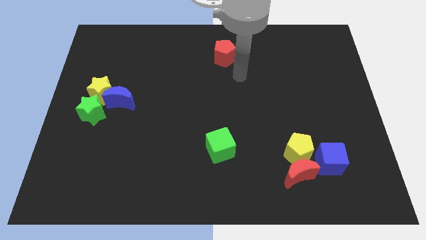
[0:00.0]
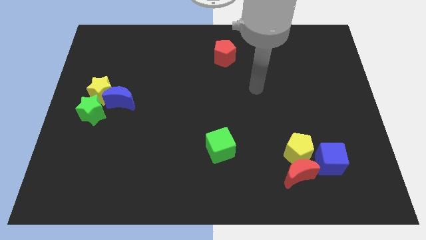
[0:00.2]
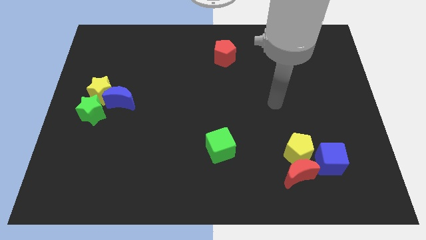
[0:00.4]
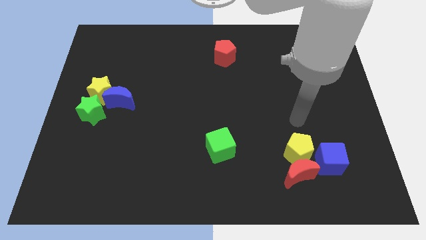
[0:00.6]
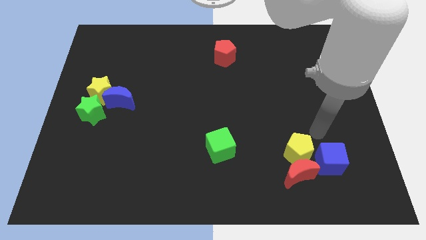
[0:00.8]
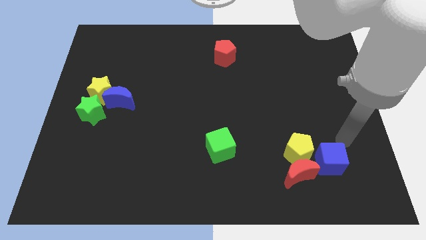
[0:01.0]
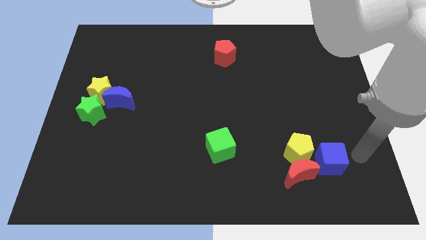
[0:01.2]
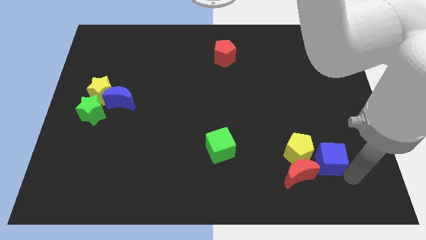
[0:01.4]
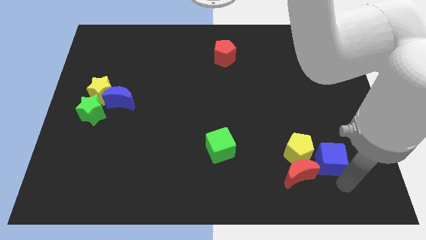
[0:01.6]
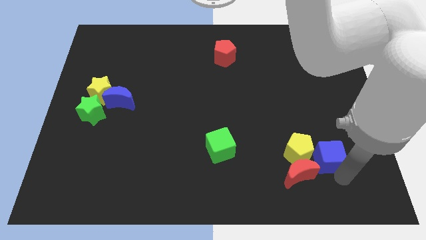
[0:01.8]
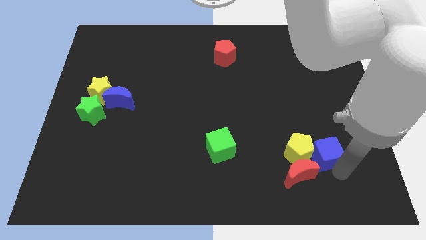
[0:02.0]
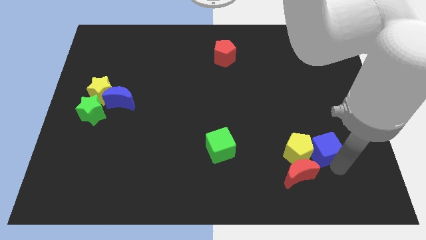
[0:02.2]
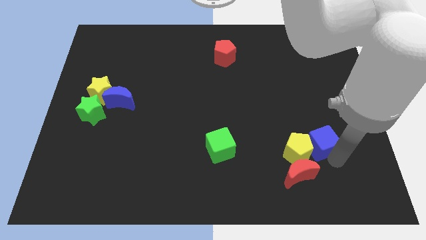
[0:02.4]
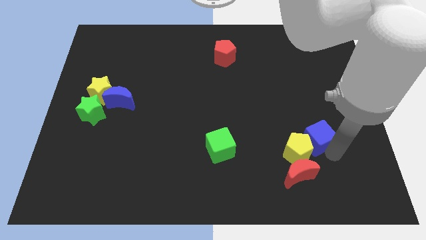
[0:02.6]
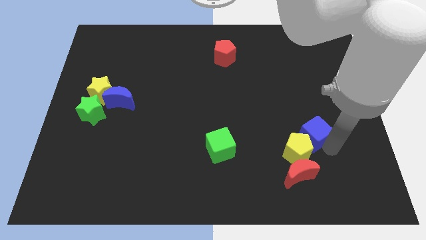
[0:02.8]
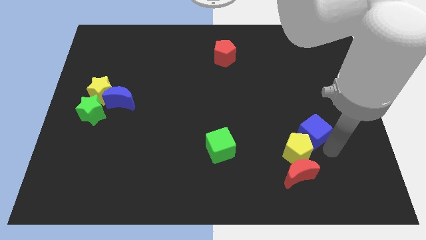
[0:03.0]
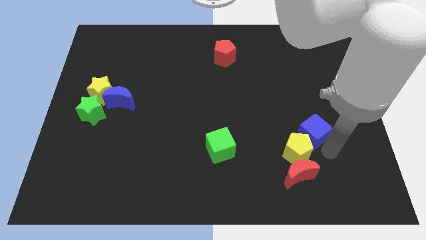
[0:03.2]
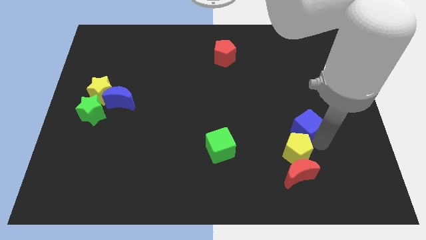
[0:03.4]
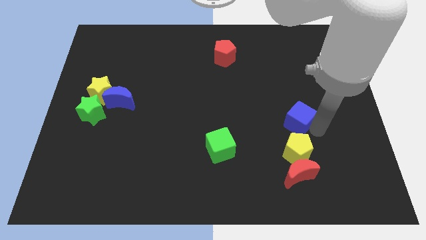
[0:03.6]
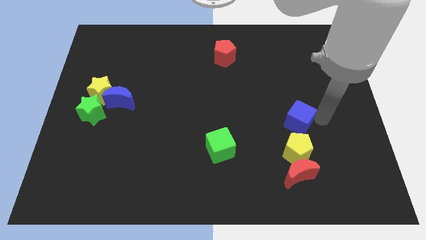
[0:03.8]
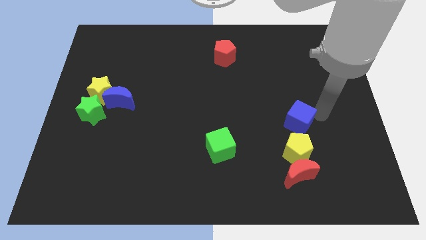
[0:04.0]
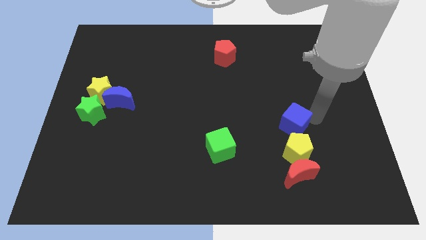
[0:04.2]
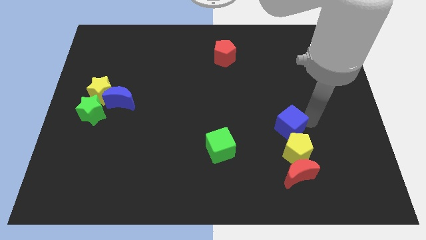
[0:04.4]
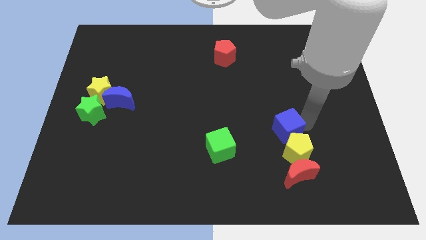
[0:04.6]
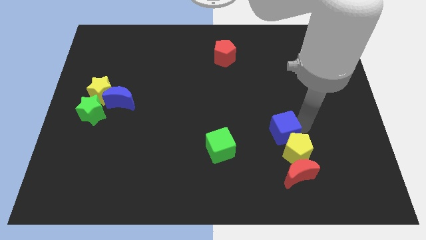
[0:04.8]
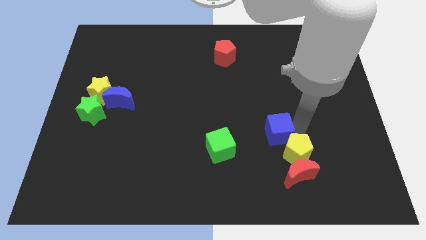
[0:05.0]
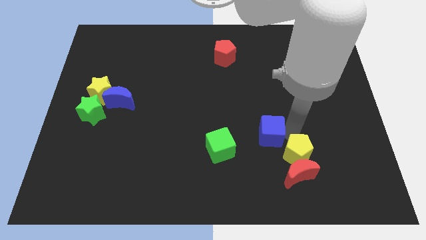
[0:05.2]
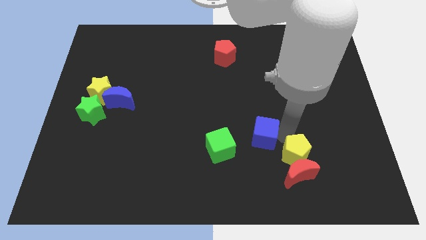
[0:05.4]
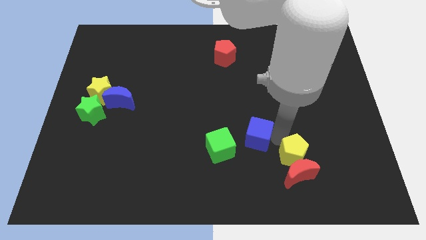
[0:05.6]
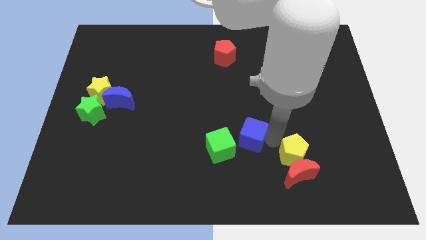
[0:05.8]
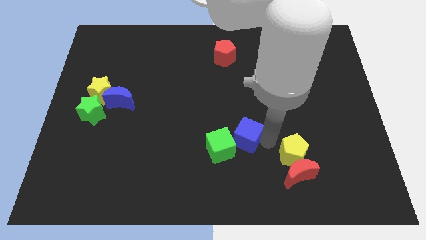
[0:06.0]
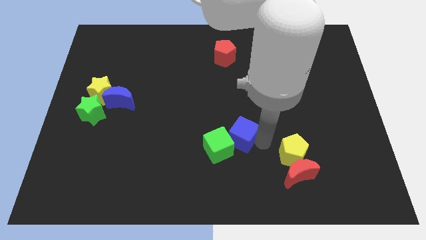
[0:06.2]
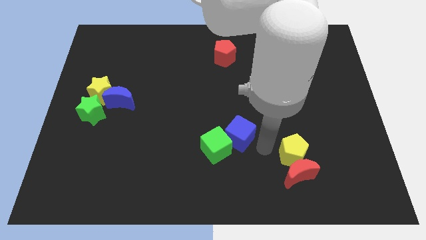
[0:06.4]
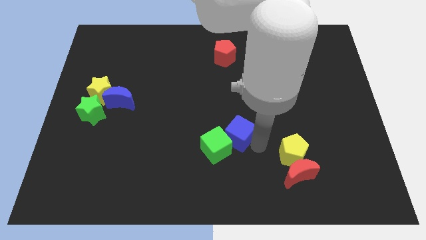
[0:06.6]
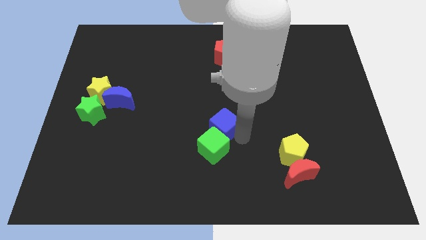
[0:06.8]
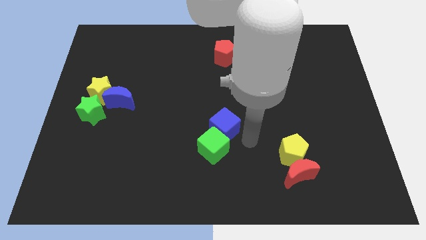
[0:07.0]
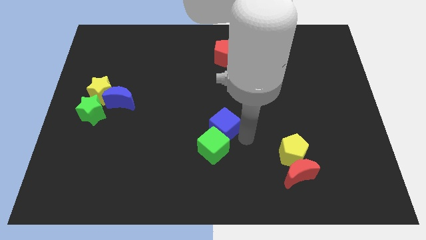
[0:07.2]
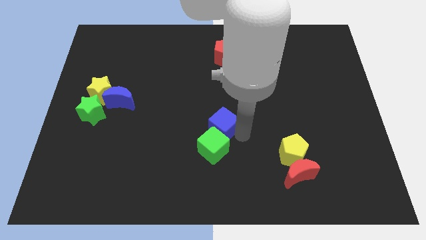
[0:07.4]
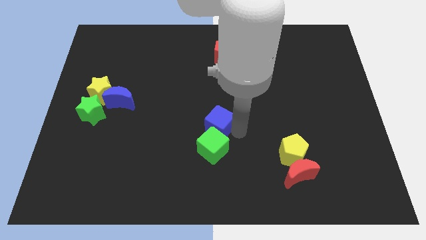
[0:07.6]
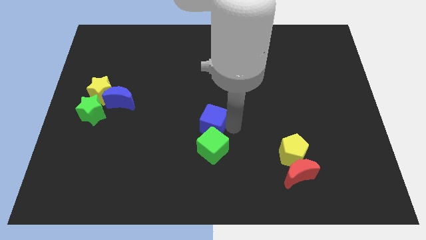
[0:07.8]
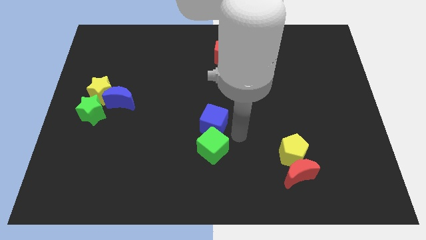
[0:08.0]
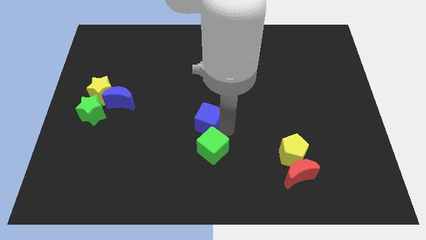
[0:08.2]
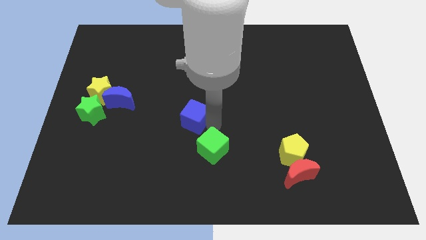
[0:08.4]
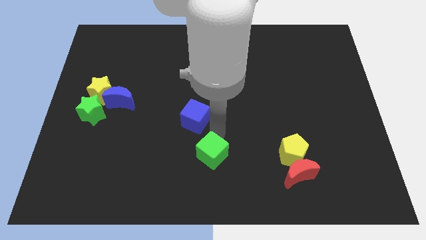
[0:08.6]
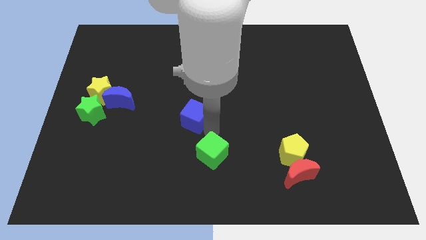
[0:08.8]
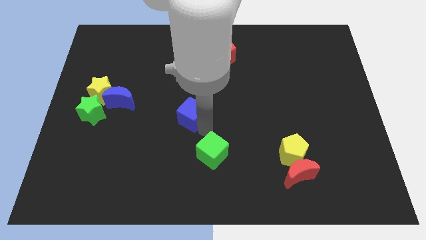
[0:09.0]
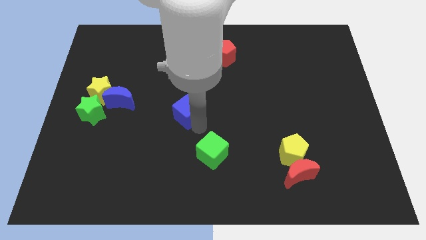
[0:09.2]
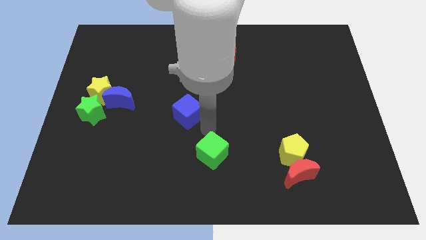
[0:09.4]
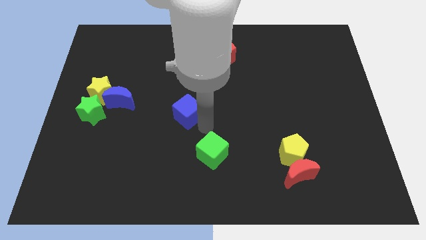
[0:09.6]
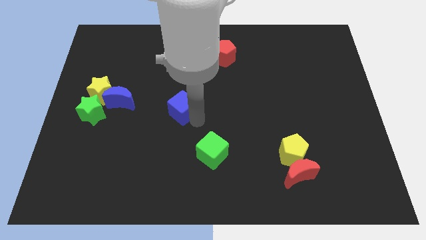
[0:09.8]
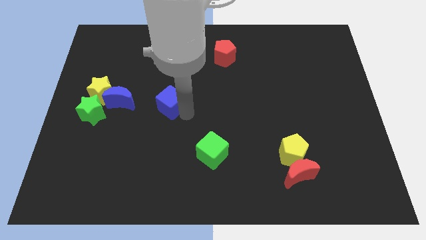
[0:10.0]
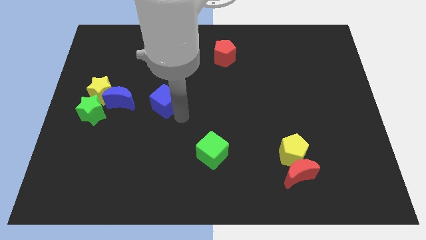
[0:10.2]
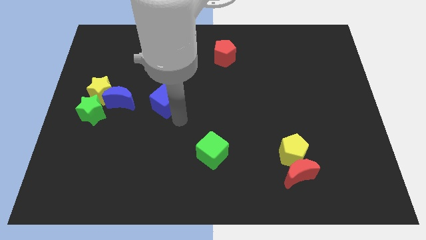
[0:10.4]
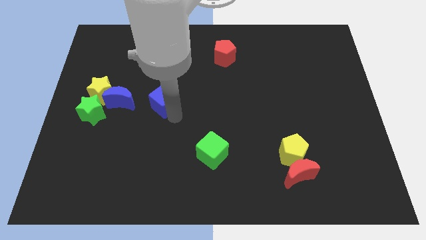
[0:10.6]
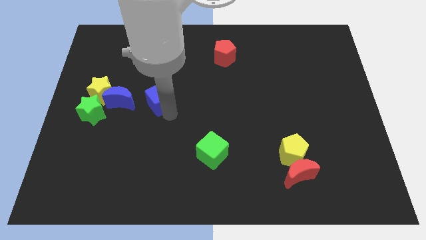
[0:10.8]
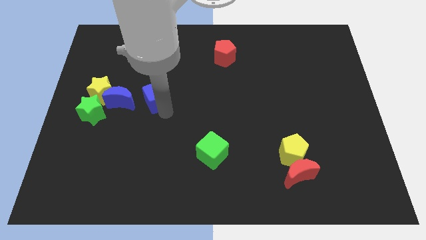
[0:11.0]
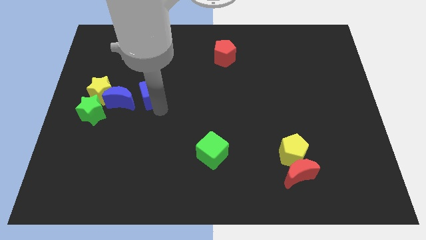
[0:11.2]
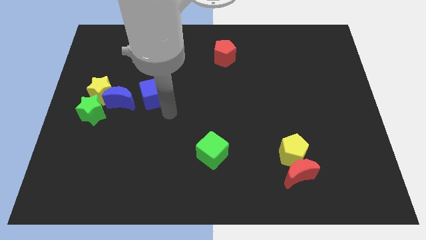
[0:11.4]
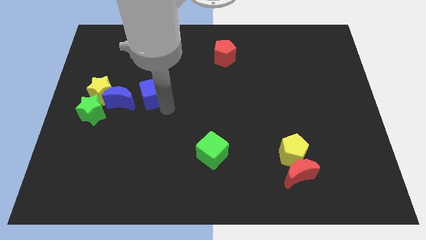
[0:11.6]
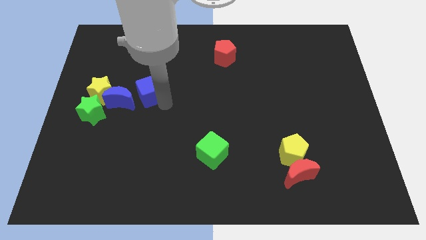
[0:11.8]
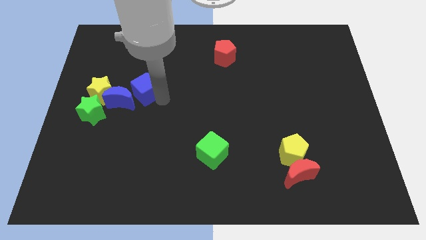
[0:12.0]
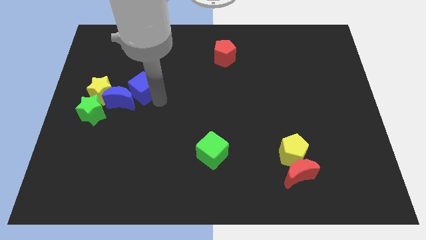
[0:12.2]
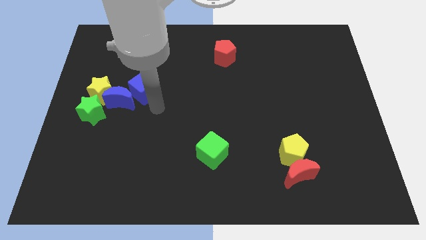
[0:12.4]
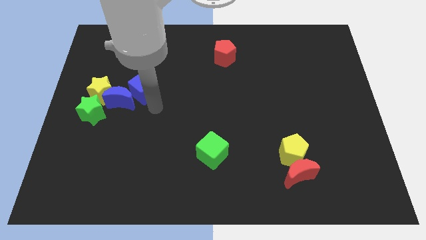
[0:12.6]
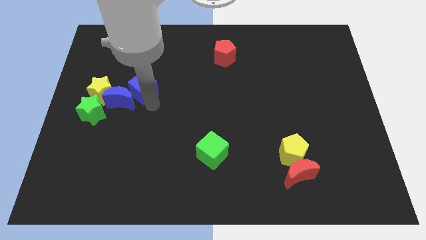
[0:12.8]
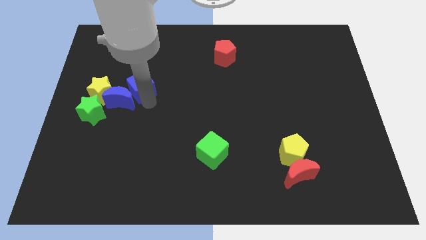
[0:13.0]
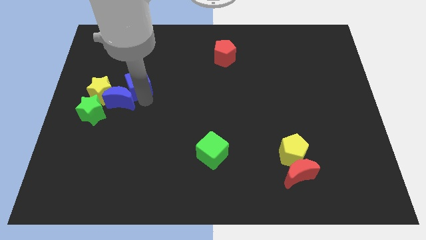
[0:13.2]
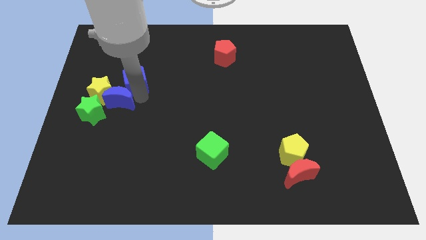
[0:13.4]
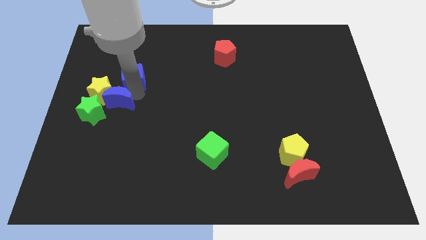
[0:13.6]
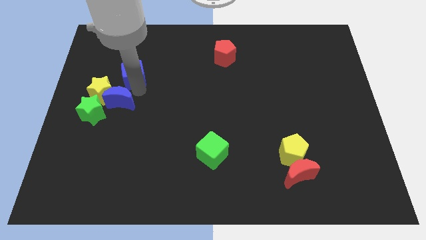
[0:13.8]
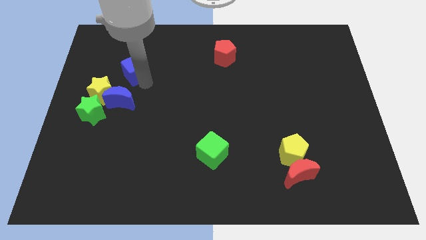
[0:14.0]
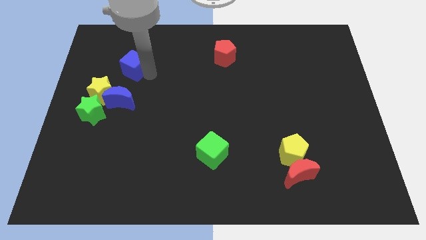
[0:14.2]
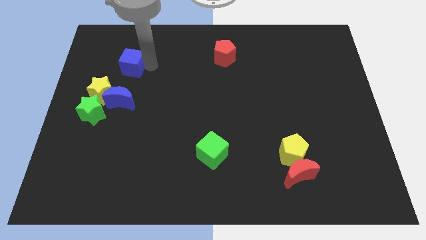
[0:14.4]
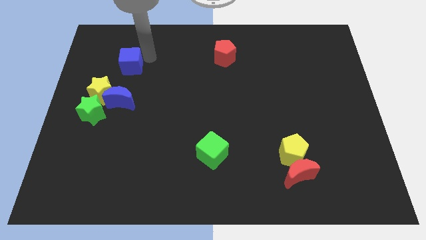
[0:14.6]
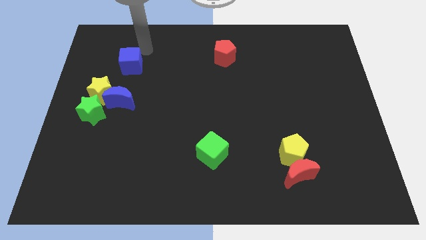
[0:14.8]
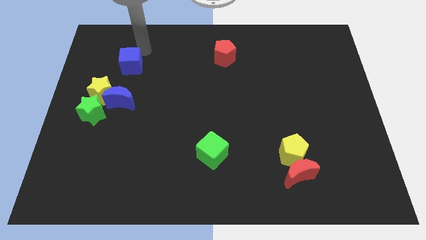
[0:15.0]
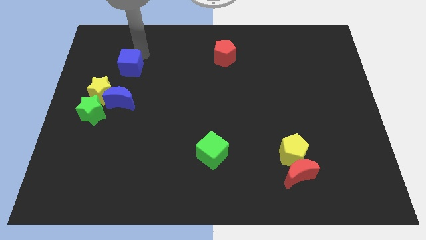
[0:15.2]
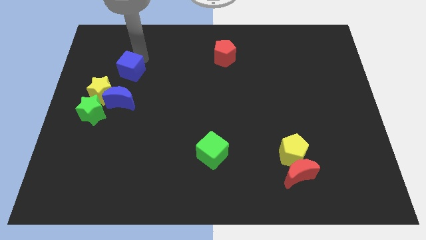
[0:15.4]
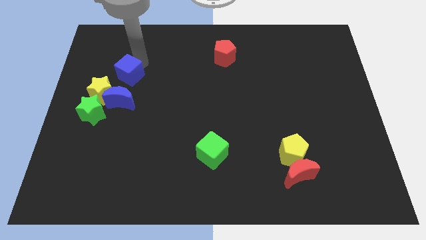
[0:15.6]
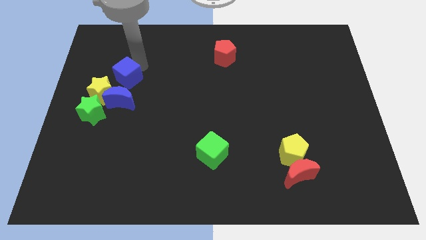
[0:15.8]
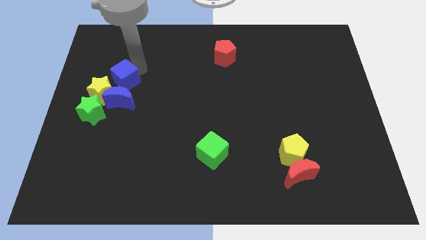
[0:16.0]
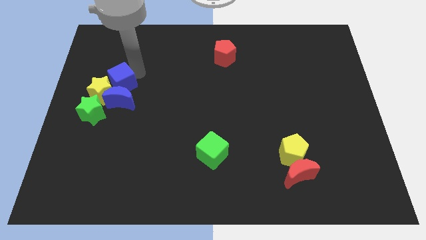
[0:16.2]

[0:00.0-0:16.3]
slide the blue cube to the yellow star
